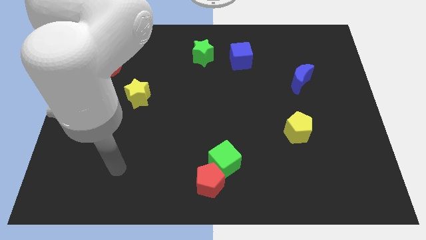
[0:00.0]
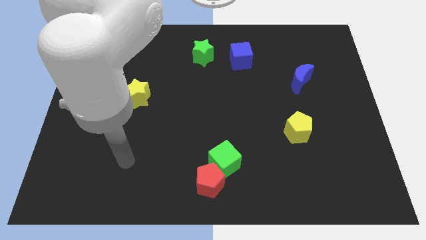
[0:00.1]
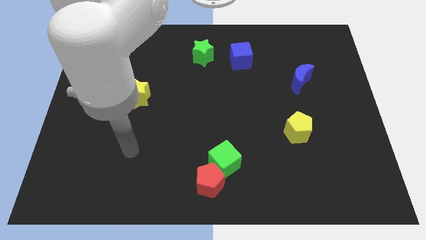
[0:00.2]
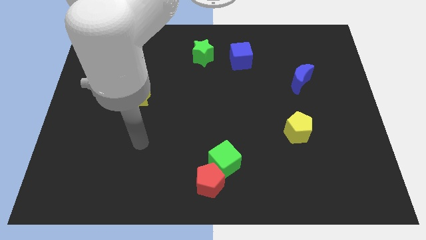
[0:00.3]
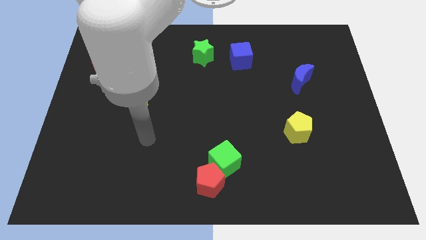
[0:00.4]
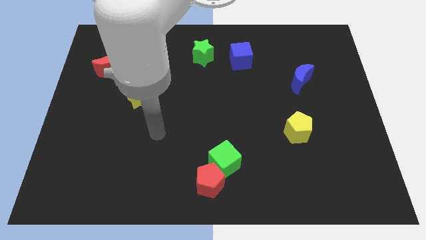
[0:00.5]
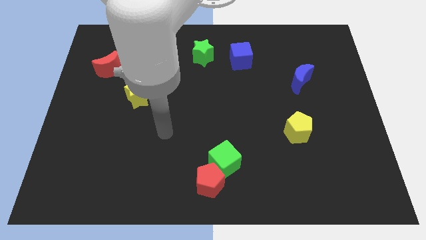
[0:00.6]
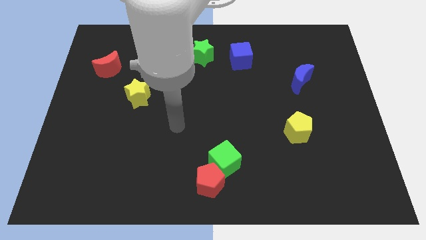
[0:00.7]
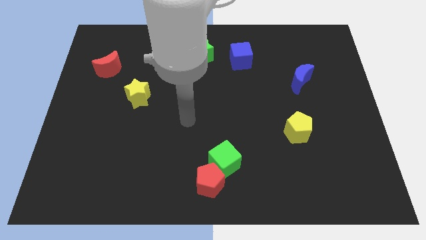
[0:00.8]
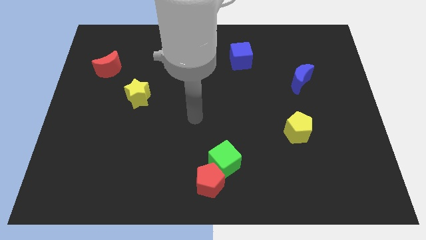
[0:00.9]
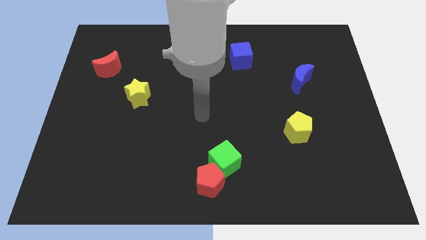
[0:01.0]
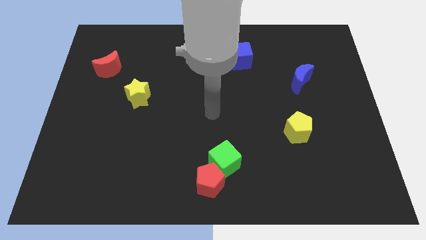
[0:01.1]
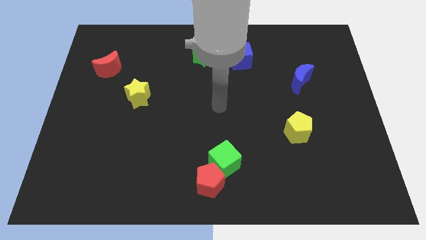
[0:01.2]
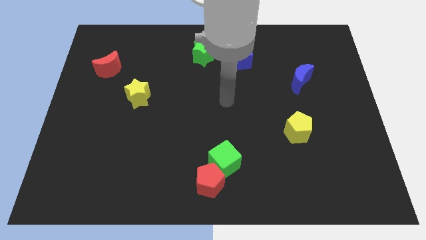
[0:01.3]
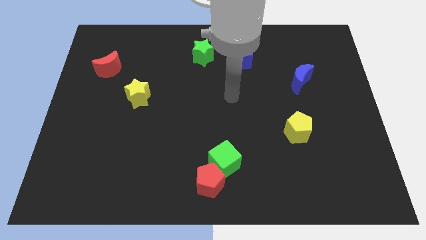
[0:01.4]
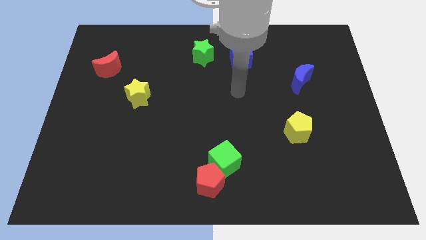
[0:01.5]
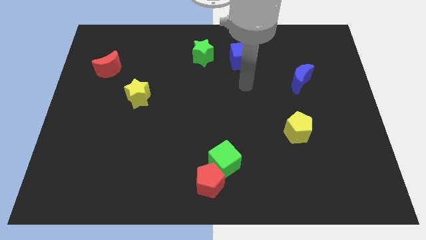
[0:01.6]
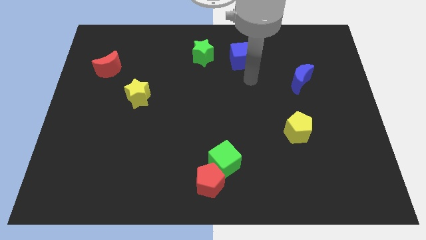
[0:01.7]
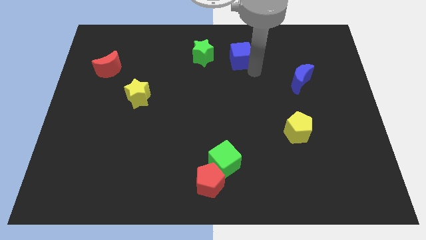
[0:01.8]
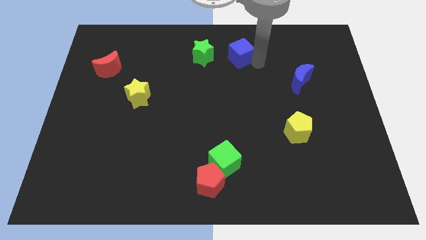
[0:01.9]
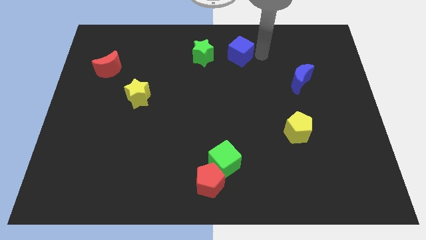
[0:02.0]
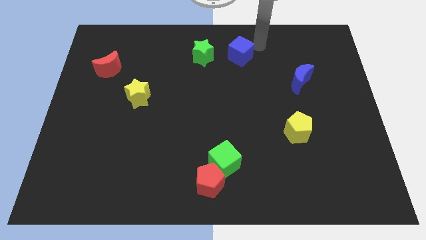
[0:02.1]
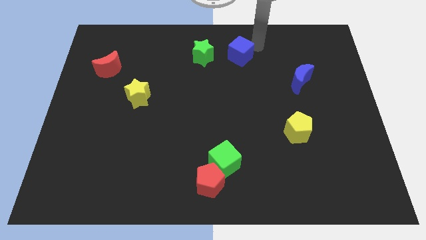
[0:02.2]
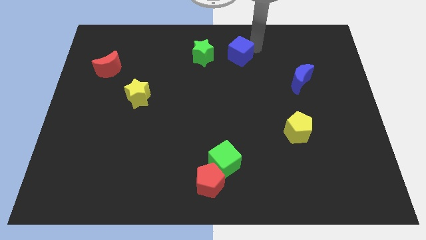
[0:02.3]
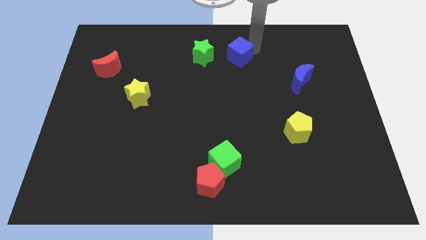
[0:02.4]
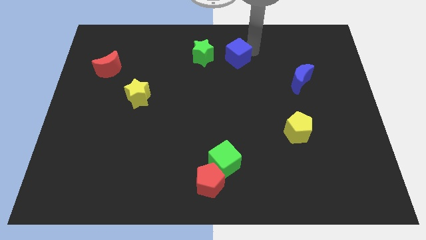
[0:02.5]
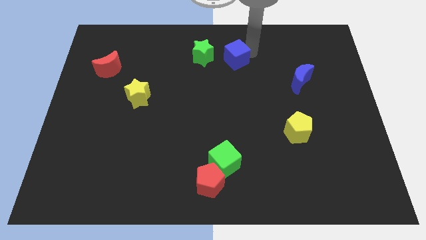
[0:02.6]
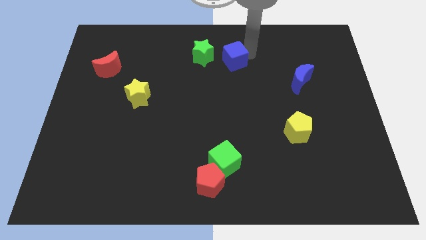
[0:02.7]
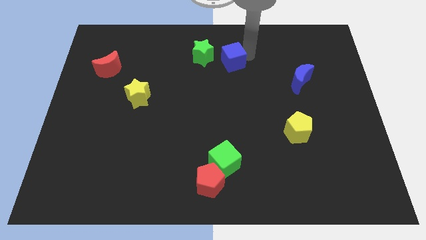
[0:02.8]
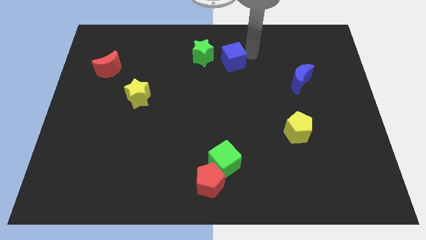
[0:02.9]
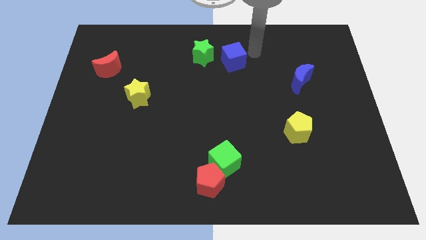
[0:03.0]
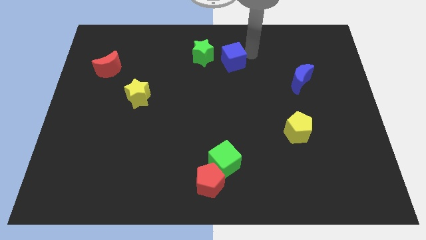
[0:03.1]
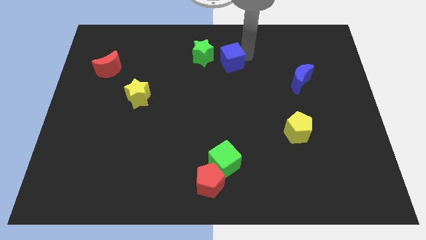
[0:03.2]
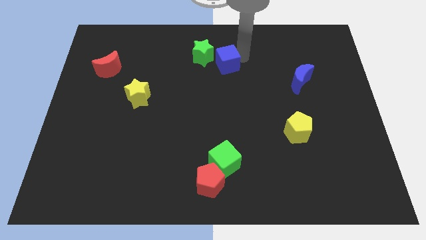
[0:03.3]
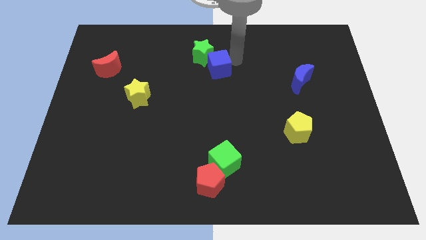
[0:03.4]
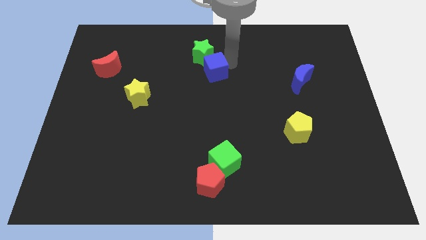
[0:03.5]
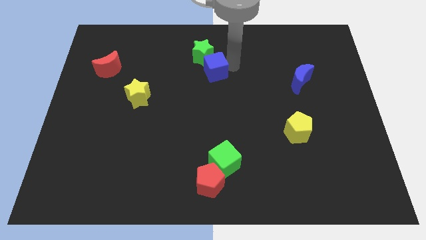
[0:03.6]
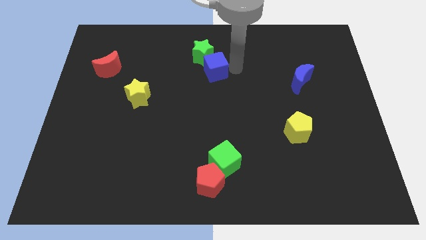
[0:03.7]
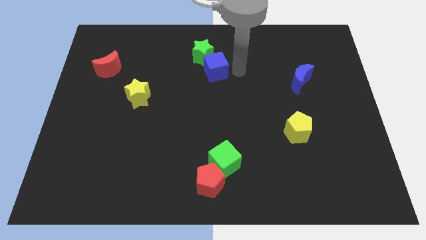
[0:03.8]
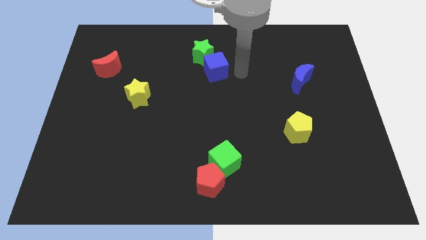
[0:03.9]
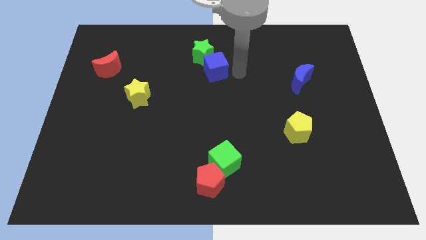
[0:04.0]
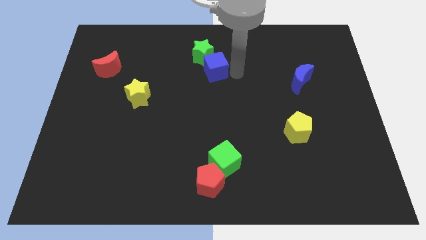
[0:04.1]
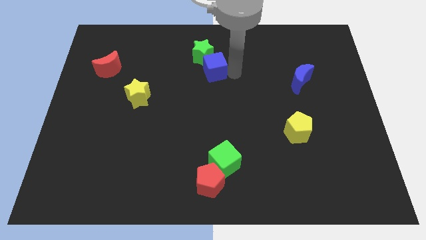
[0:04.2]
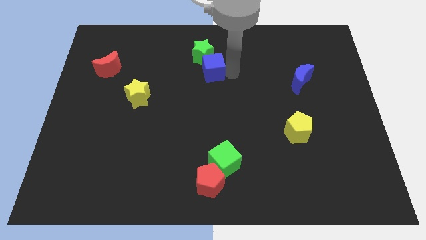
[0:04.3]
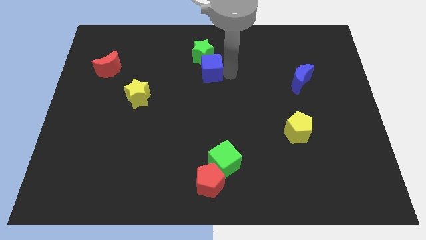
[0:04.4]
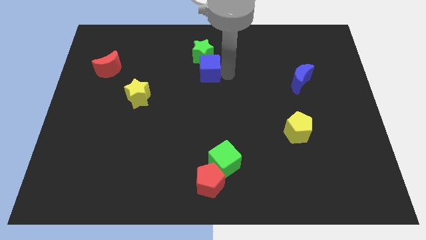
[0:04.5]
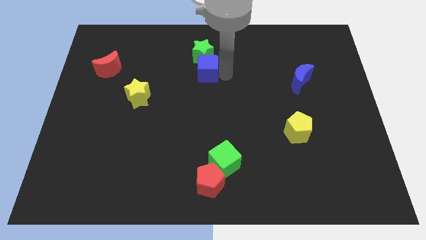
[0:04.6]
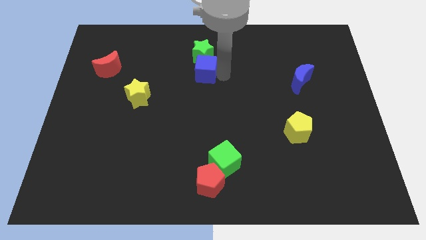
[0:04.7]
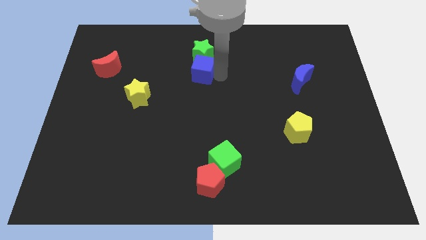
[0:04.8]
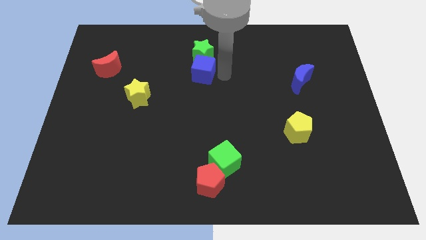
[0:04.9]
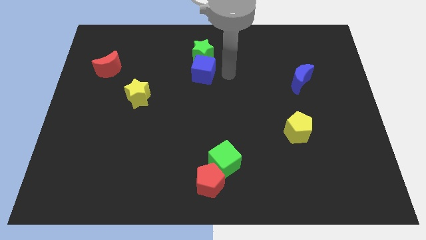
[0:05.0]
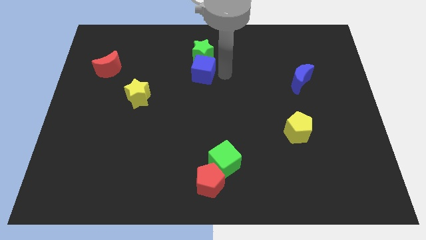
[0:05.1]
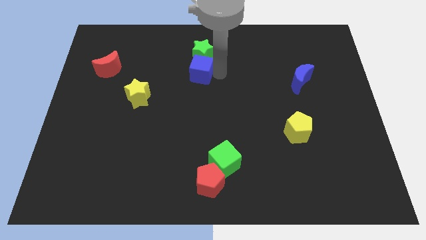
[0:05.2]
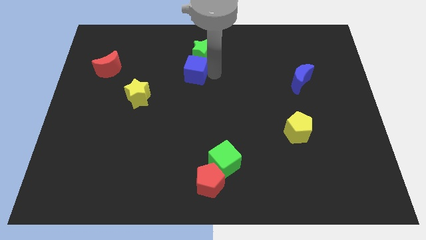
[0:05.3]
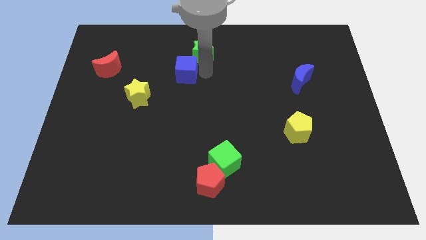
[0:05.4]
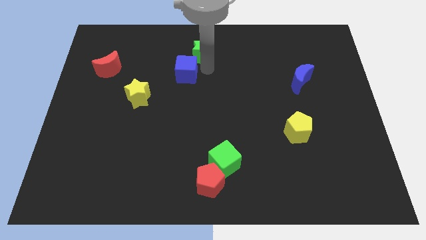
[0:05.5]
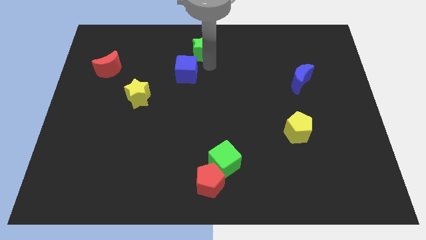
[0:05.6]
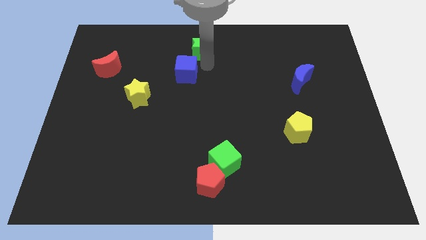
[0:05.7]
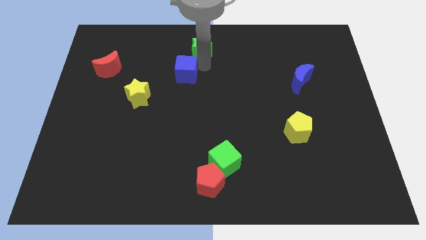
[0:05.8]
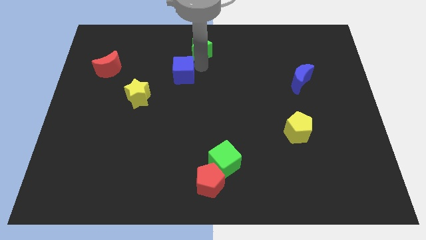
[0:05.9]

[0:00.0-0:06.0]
move the blue cube to the top right of the yellow star
